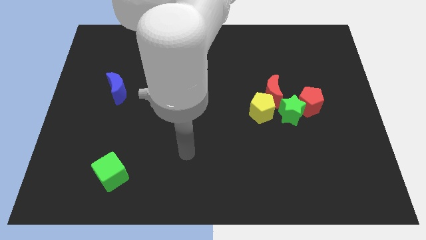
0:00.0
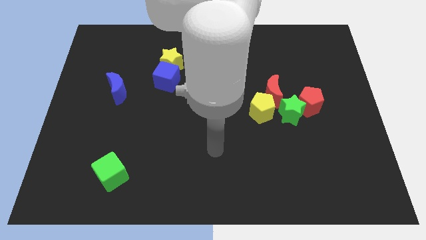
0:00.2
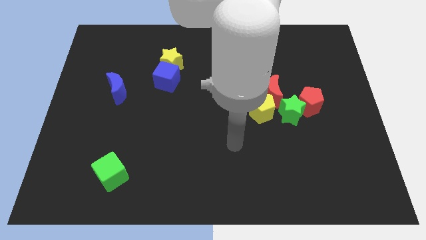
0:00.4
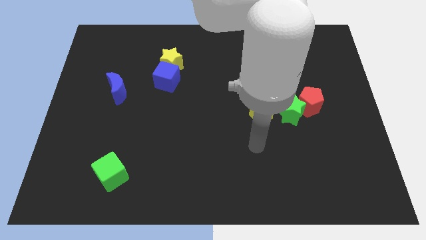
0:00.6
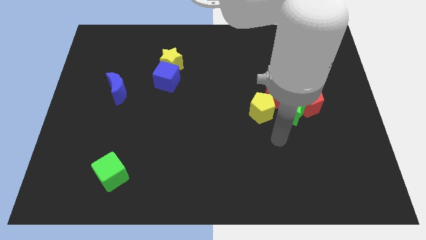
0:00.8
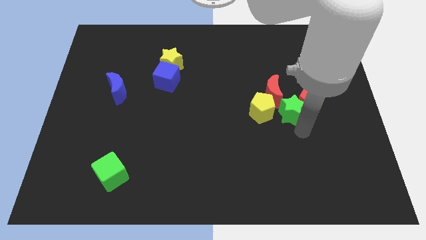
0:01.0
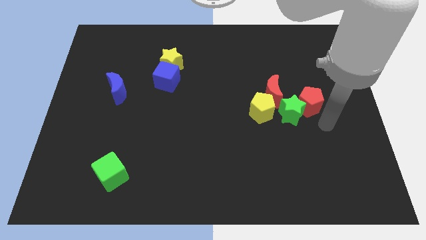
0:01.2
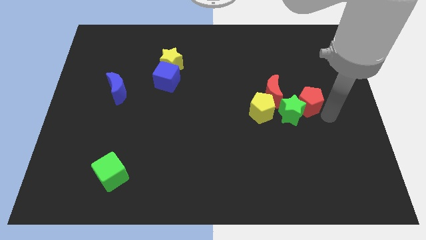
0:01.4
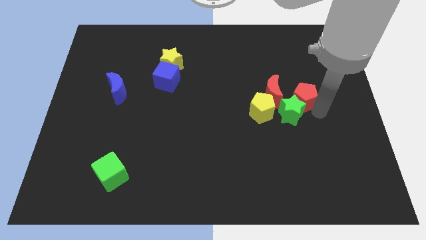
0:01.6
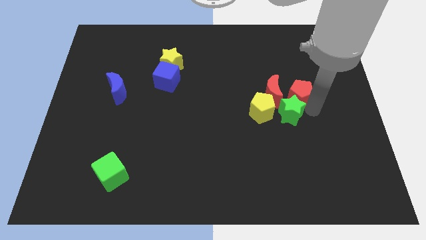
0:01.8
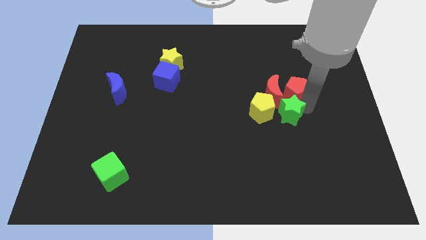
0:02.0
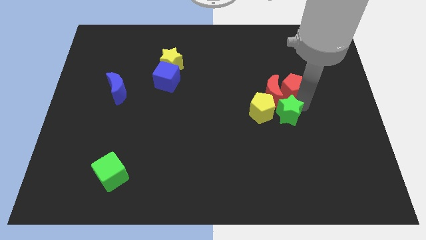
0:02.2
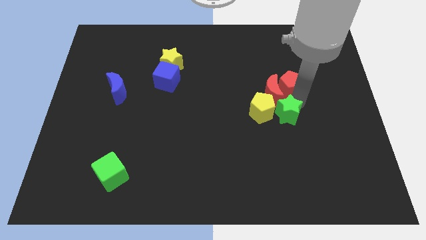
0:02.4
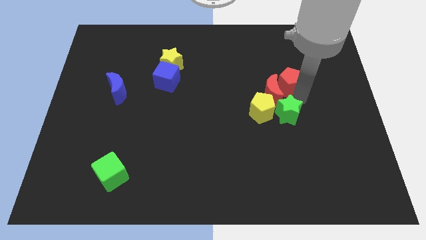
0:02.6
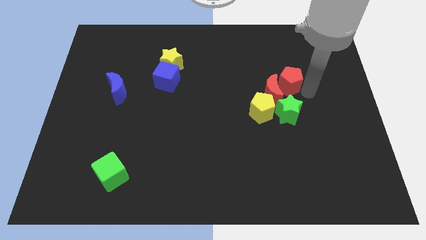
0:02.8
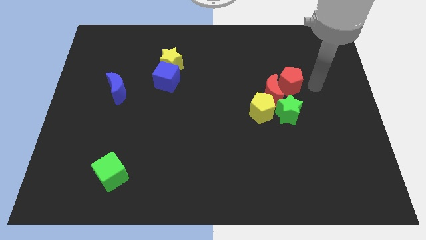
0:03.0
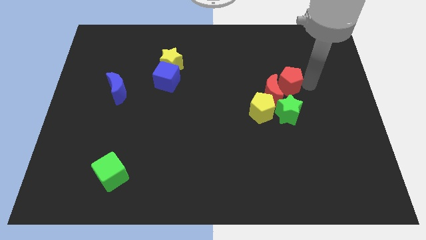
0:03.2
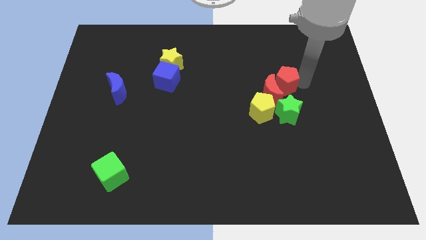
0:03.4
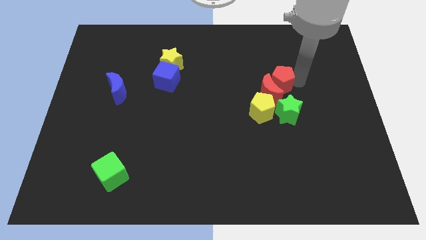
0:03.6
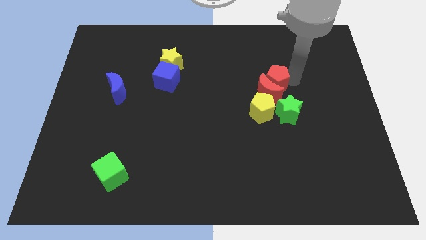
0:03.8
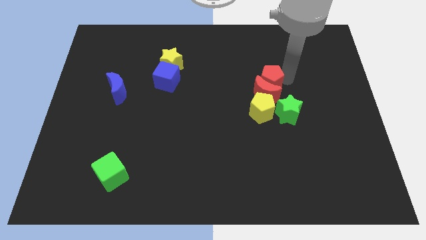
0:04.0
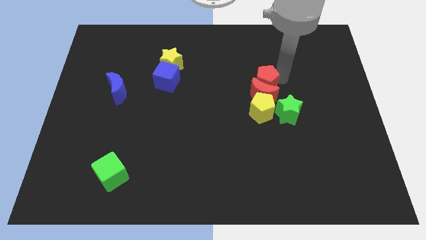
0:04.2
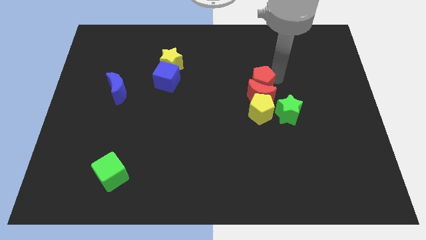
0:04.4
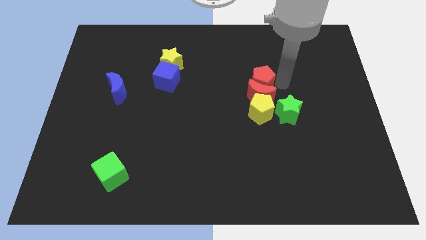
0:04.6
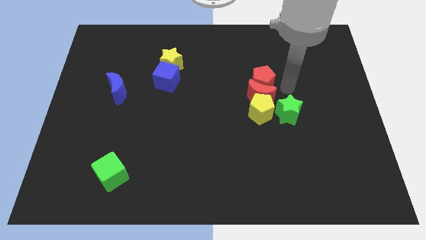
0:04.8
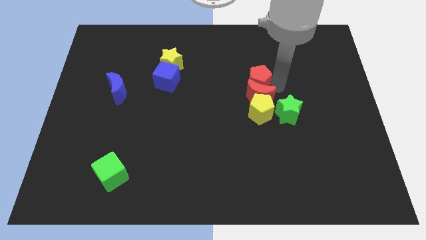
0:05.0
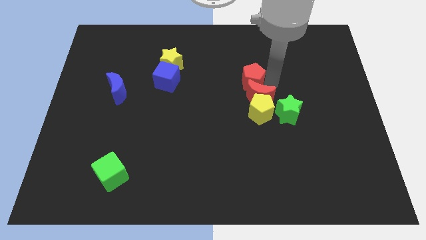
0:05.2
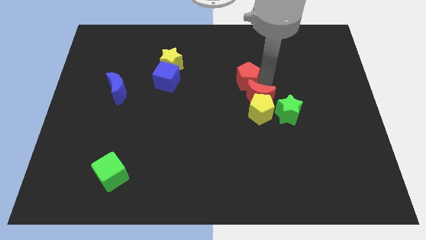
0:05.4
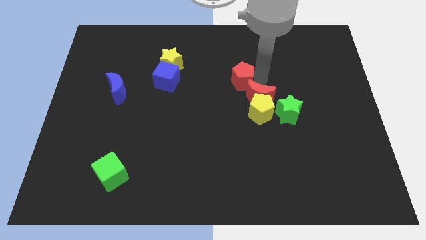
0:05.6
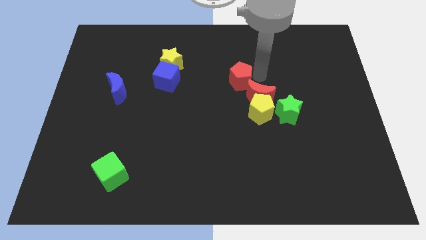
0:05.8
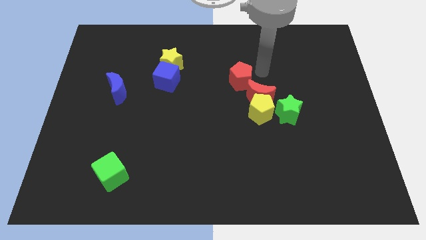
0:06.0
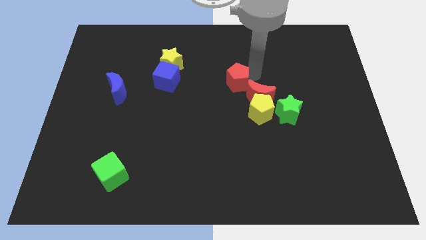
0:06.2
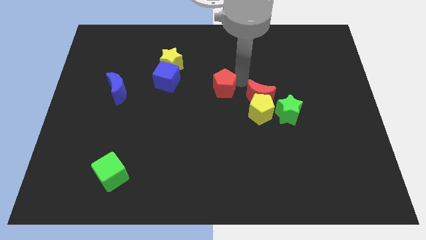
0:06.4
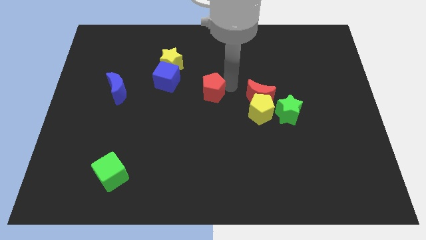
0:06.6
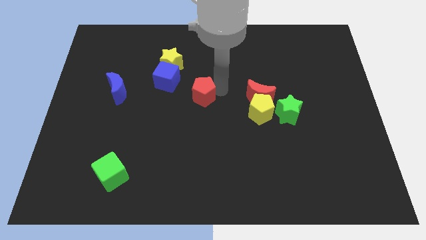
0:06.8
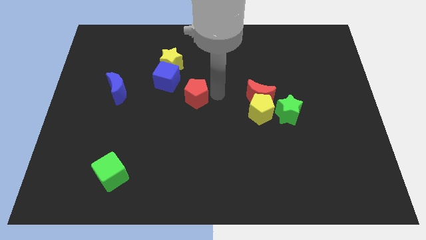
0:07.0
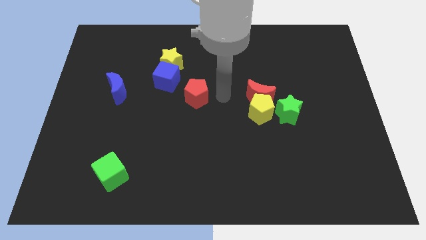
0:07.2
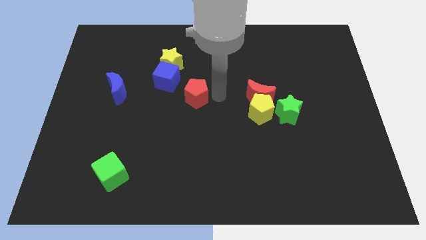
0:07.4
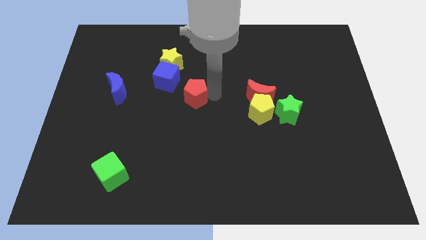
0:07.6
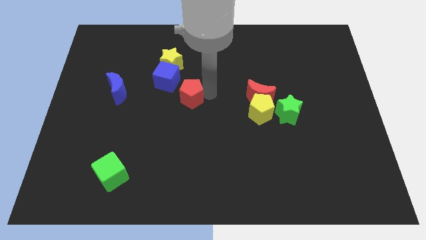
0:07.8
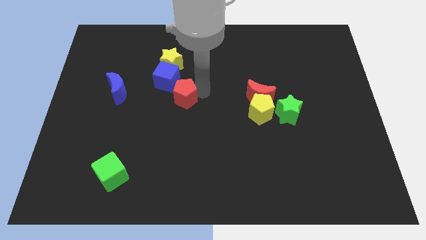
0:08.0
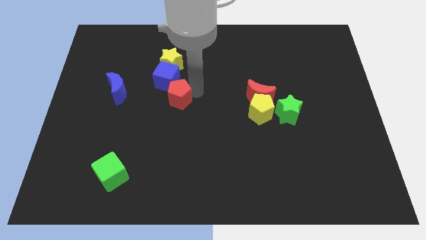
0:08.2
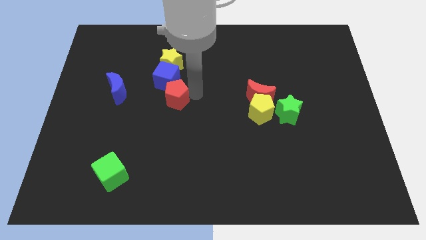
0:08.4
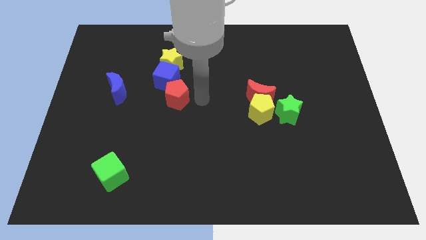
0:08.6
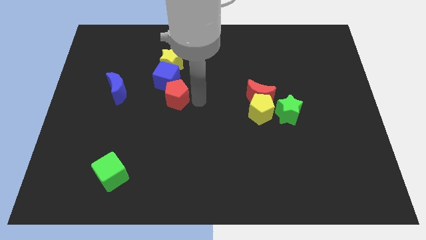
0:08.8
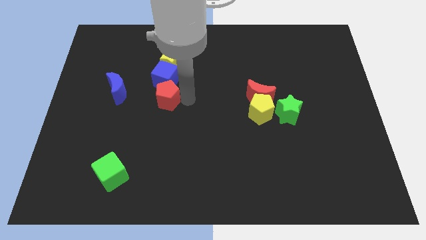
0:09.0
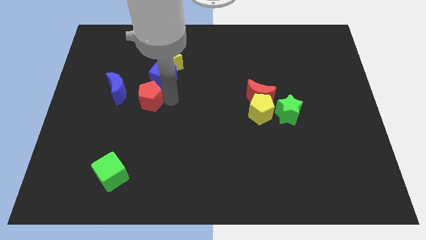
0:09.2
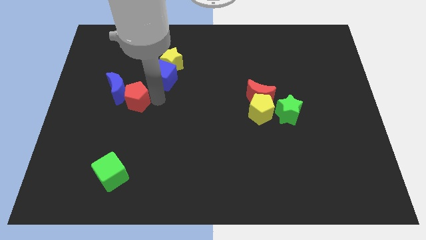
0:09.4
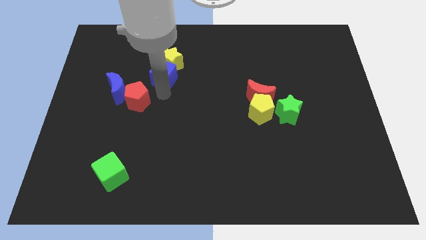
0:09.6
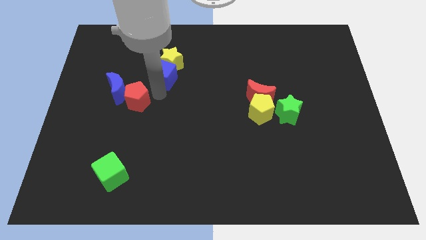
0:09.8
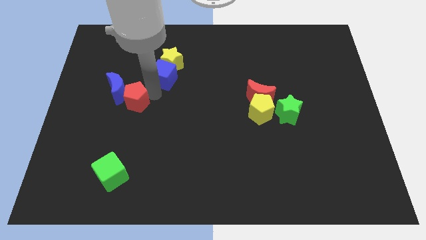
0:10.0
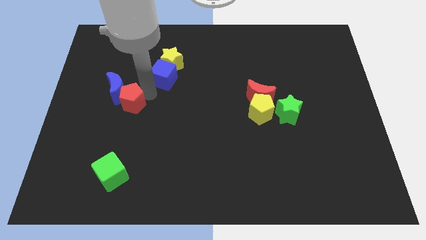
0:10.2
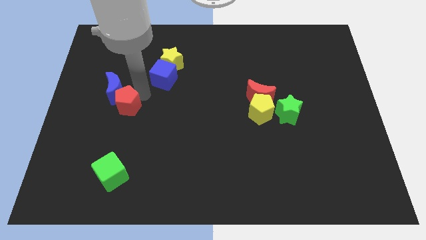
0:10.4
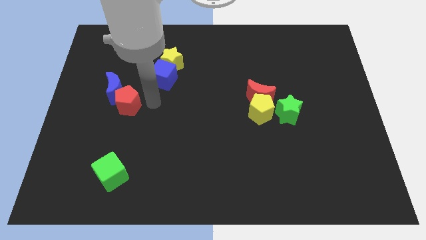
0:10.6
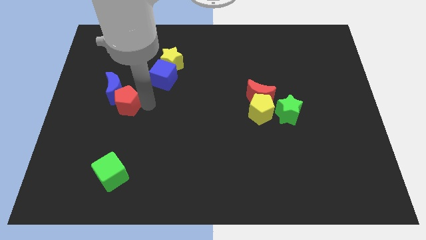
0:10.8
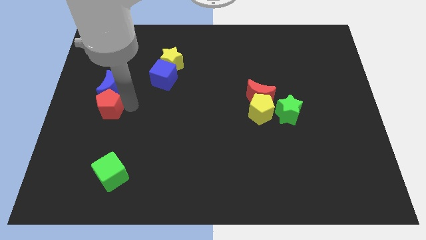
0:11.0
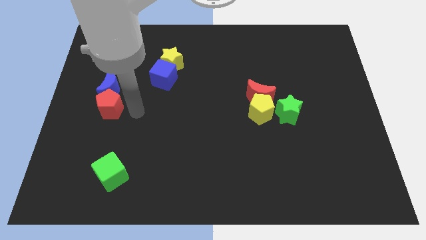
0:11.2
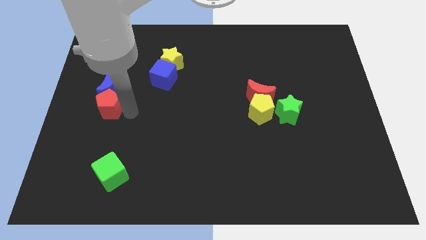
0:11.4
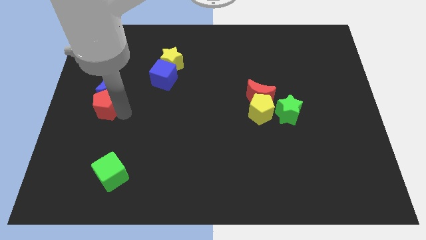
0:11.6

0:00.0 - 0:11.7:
put the red pentagon to the left side

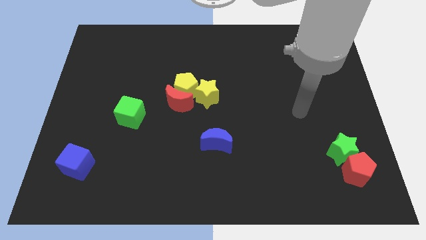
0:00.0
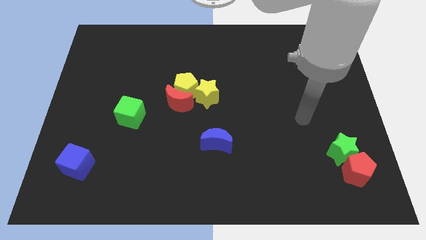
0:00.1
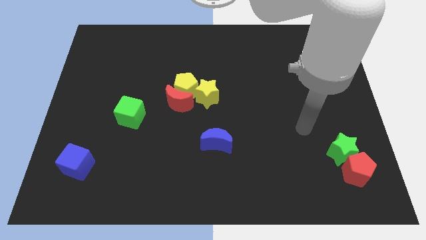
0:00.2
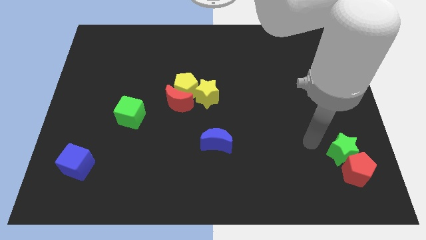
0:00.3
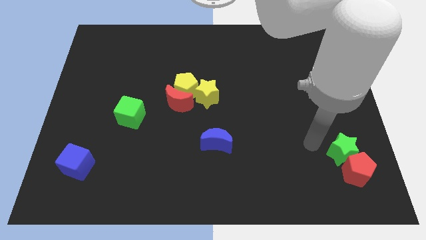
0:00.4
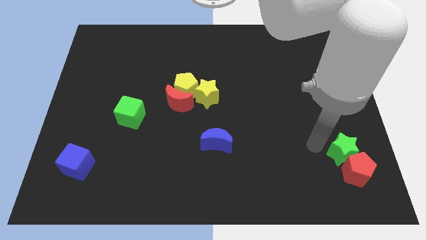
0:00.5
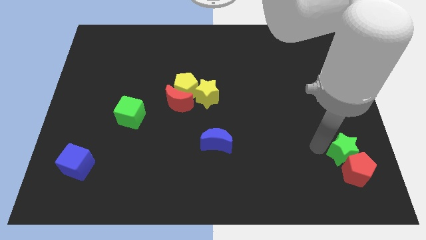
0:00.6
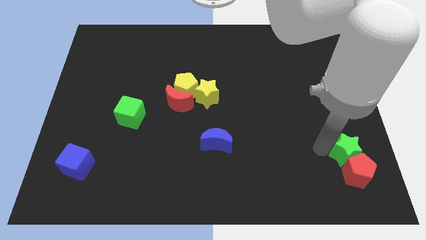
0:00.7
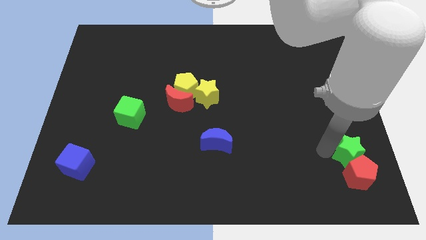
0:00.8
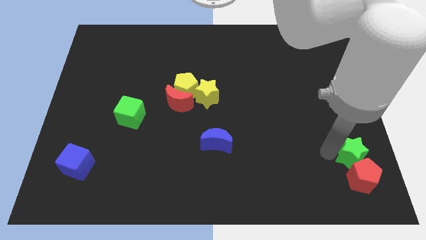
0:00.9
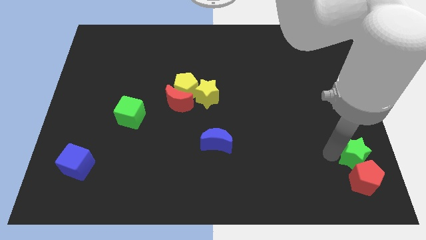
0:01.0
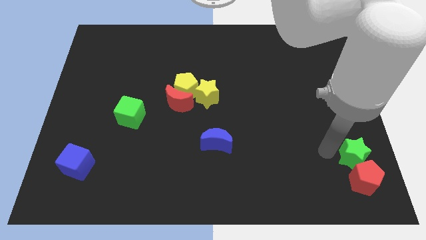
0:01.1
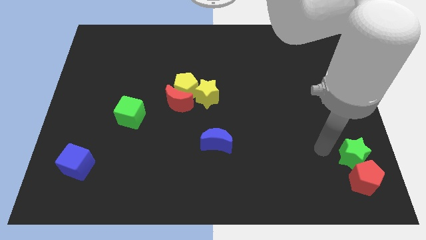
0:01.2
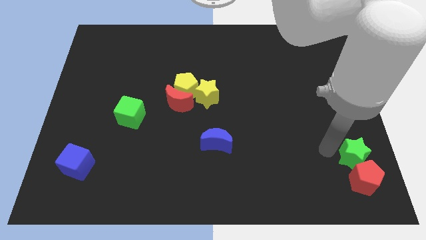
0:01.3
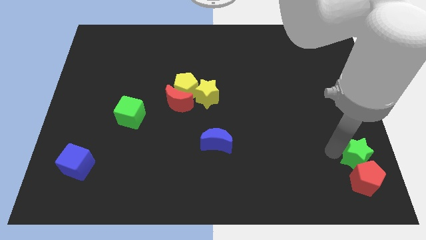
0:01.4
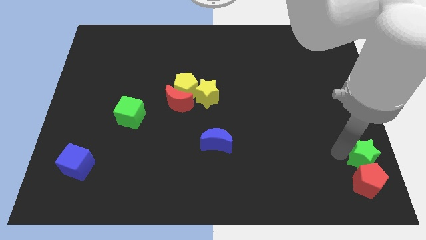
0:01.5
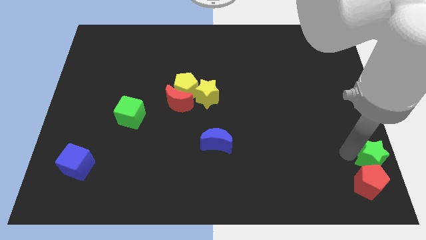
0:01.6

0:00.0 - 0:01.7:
push the green star to the lower right corner
